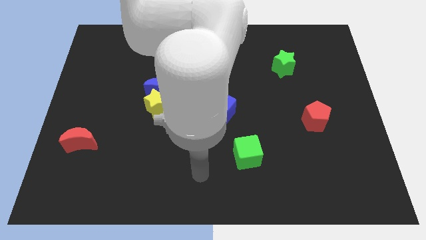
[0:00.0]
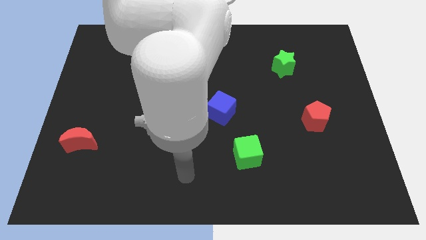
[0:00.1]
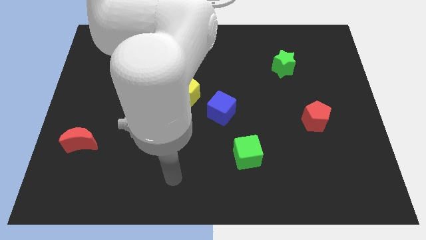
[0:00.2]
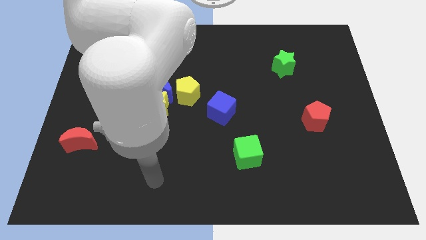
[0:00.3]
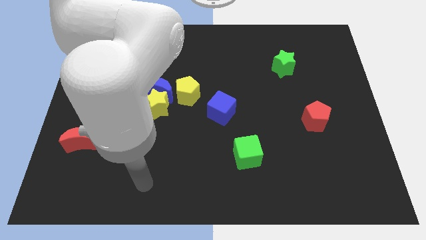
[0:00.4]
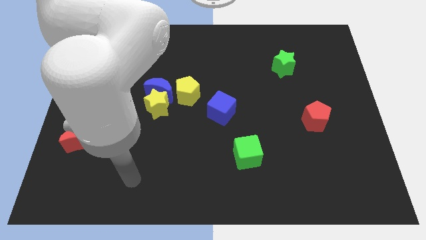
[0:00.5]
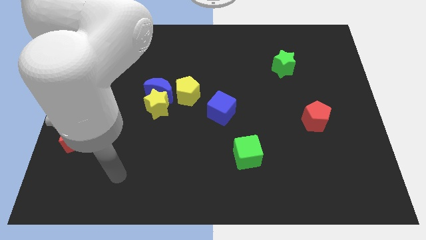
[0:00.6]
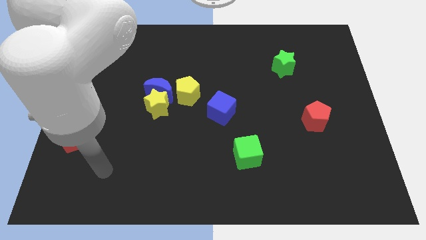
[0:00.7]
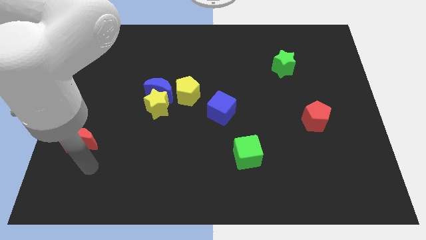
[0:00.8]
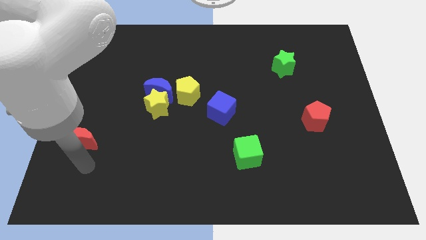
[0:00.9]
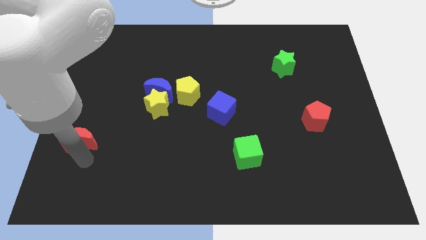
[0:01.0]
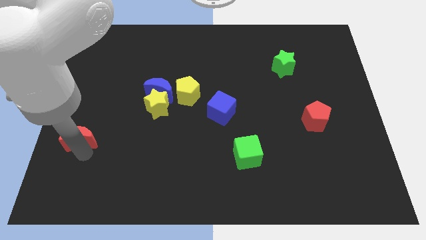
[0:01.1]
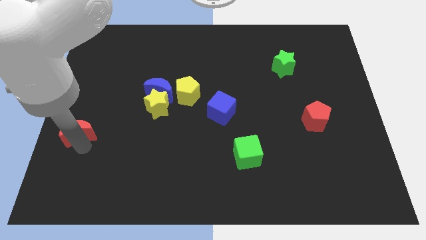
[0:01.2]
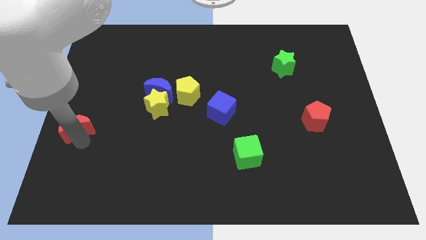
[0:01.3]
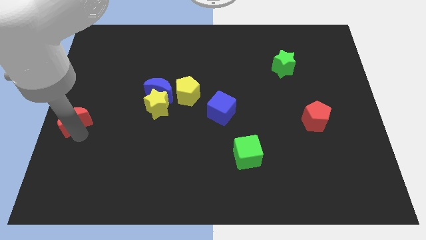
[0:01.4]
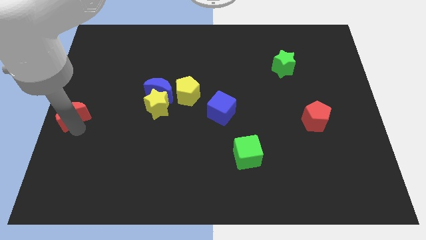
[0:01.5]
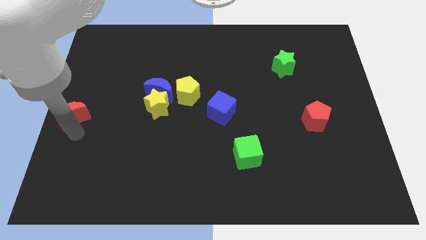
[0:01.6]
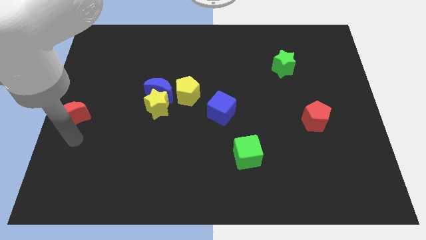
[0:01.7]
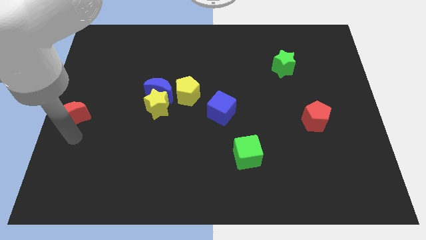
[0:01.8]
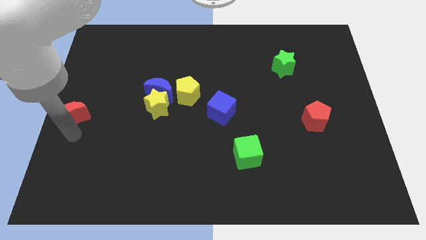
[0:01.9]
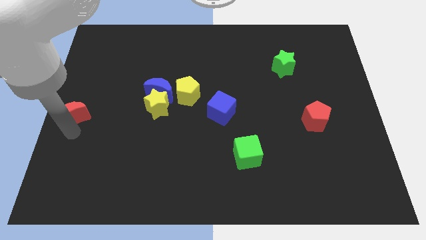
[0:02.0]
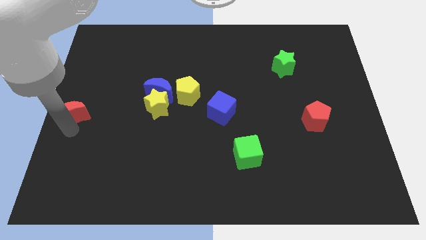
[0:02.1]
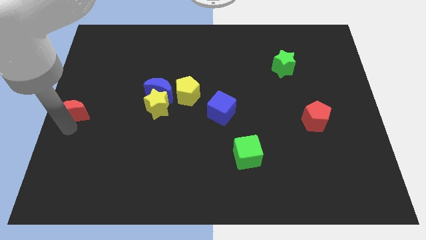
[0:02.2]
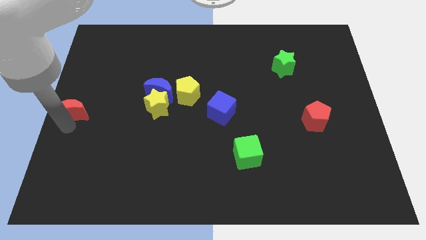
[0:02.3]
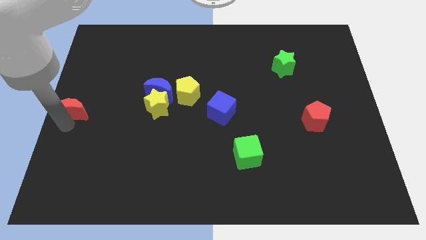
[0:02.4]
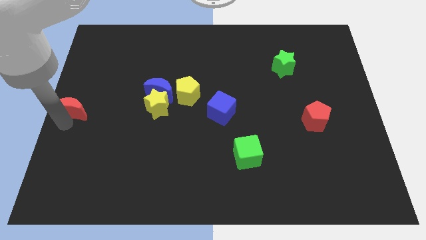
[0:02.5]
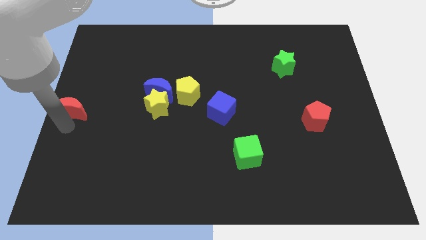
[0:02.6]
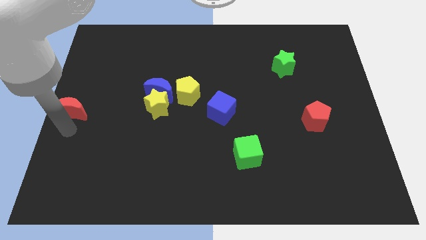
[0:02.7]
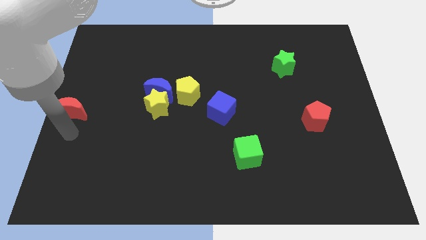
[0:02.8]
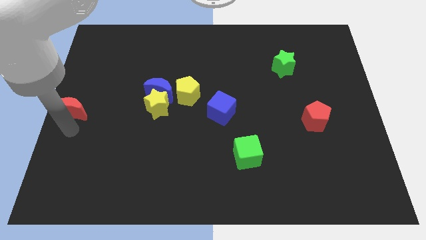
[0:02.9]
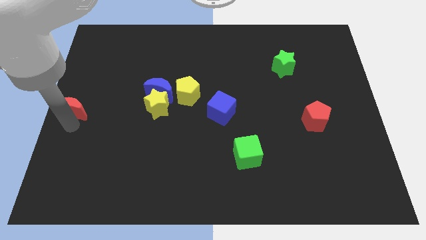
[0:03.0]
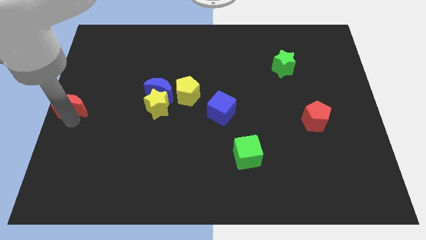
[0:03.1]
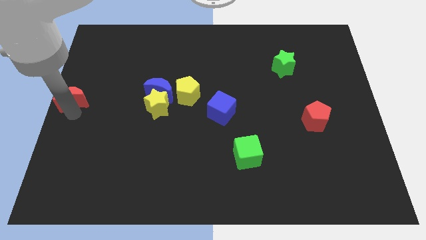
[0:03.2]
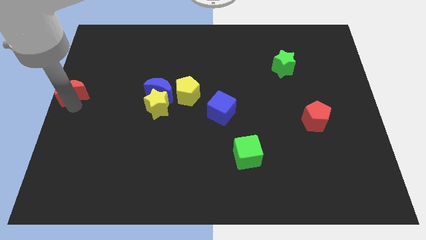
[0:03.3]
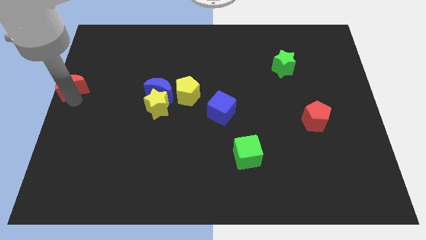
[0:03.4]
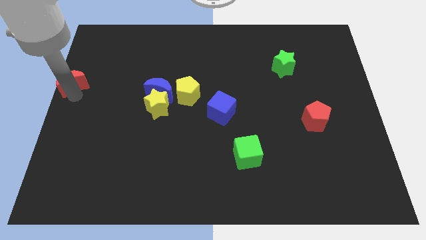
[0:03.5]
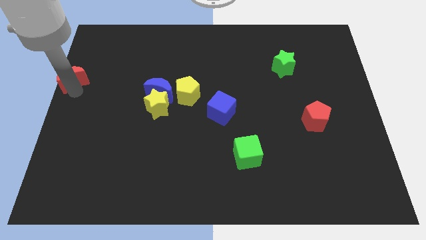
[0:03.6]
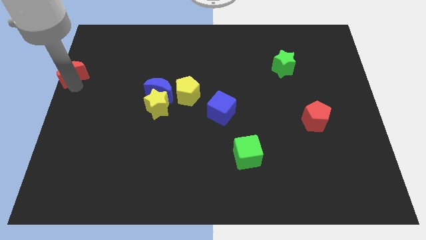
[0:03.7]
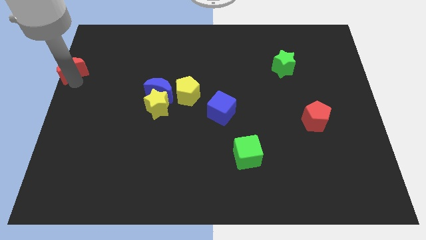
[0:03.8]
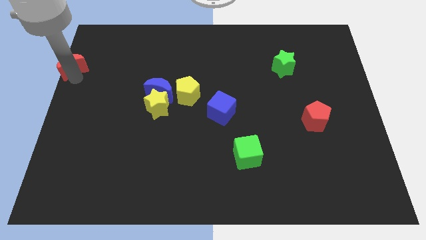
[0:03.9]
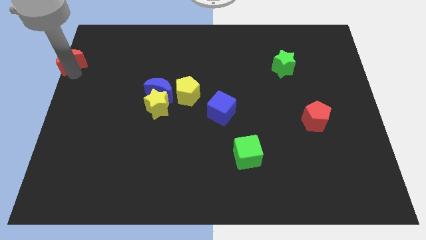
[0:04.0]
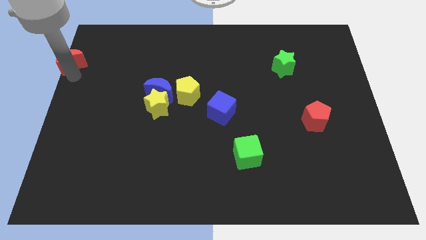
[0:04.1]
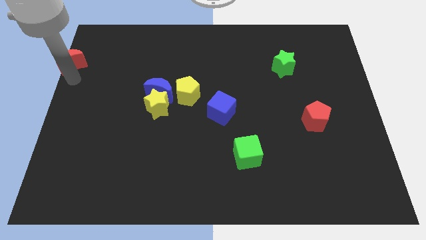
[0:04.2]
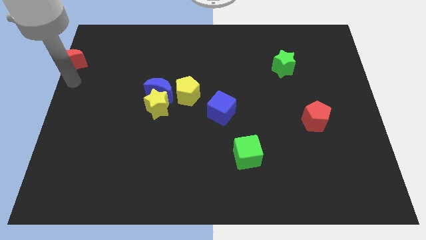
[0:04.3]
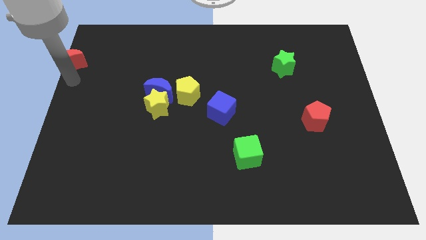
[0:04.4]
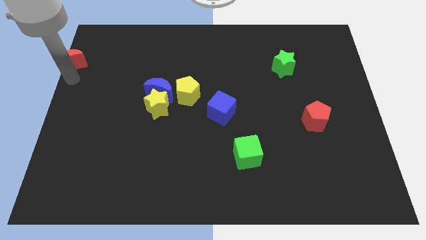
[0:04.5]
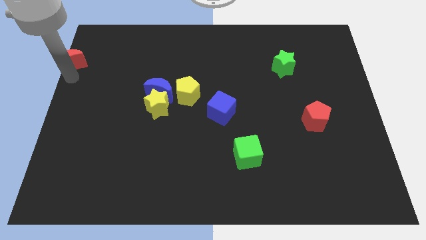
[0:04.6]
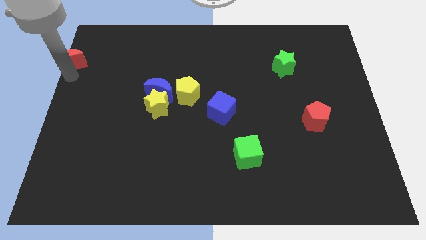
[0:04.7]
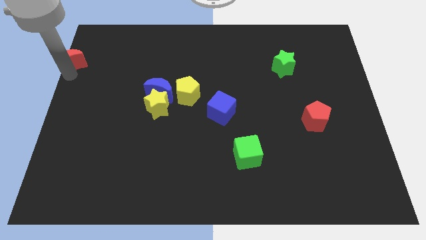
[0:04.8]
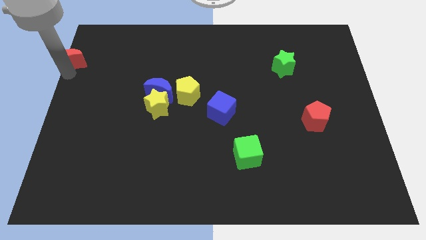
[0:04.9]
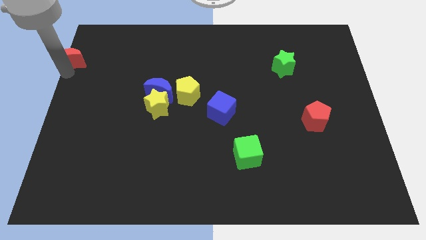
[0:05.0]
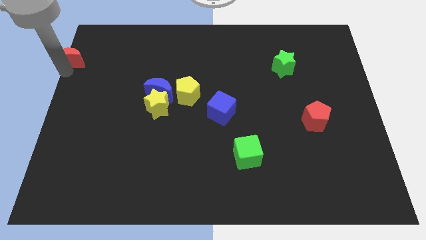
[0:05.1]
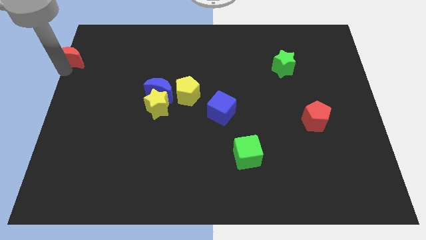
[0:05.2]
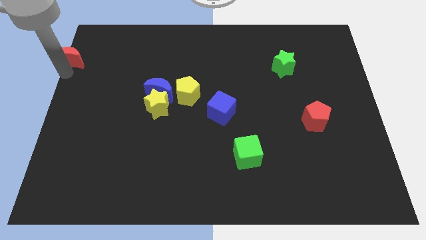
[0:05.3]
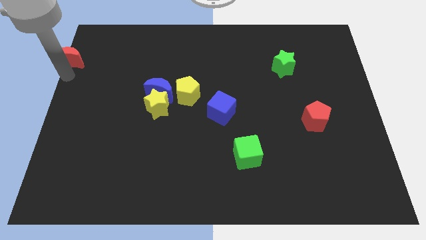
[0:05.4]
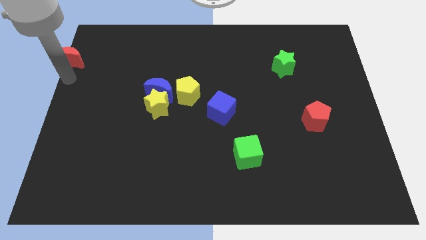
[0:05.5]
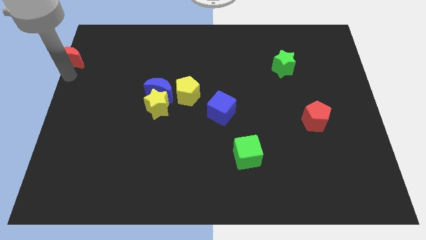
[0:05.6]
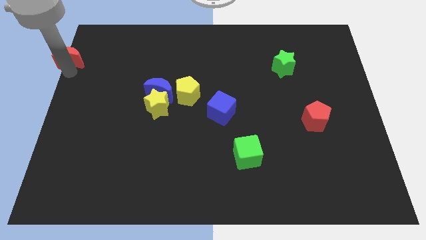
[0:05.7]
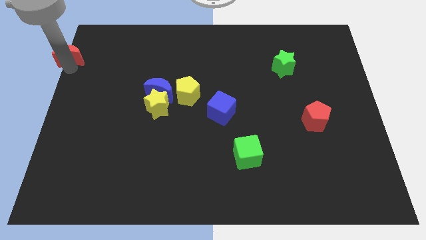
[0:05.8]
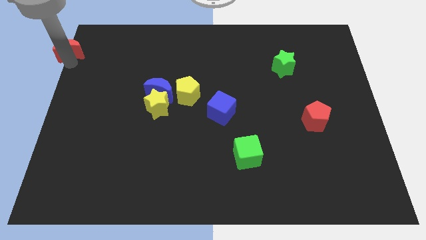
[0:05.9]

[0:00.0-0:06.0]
push the red moon to the upper left corner

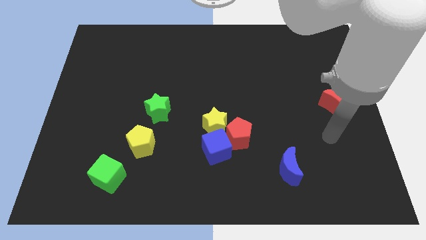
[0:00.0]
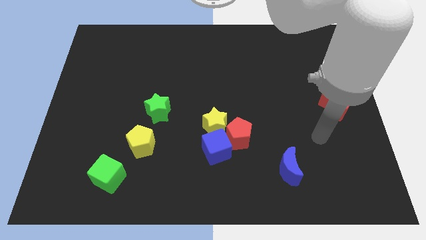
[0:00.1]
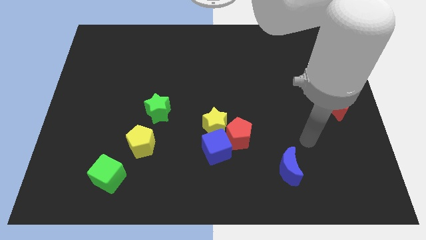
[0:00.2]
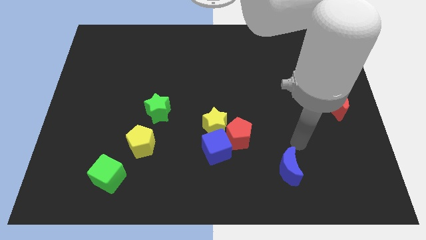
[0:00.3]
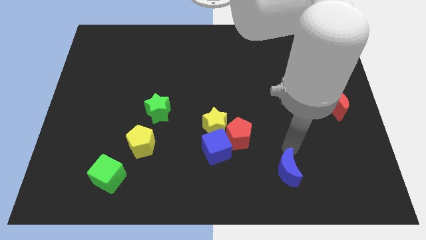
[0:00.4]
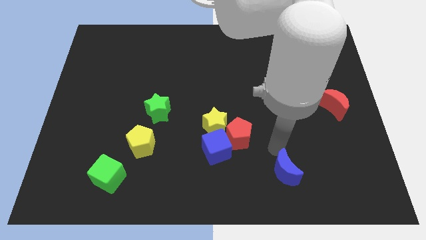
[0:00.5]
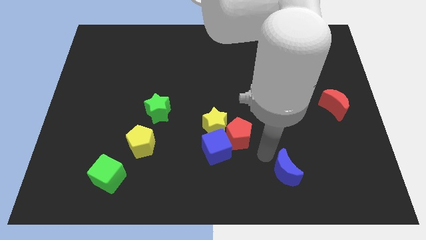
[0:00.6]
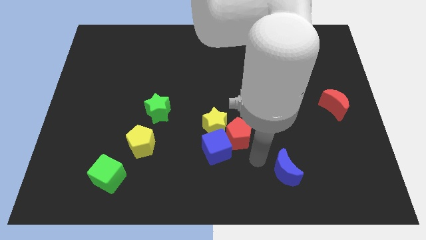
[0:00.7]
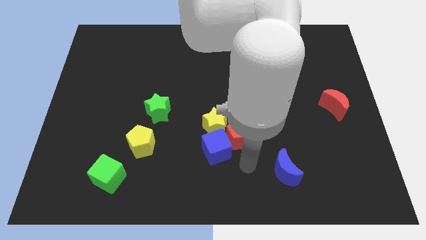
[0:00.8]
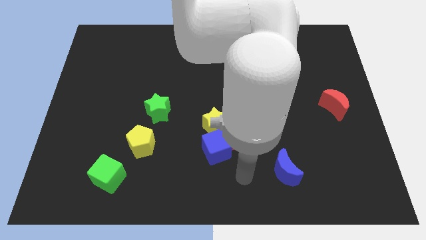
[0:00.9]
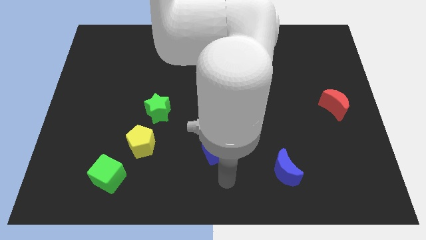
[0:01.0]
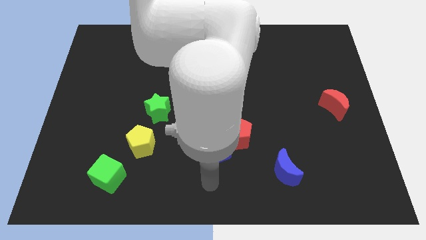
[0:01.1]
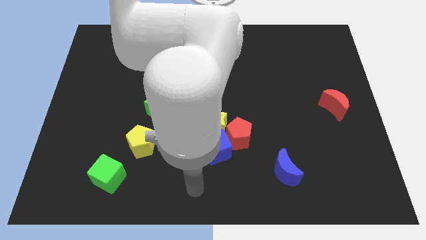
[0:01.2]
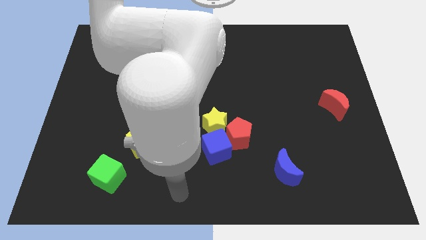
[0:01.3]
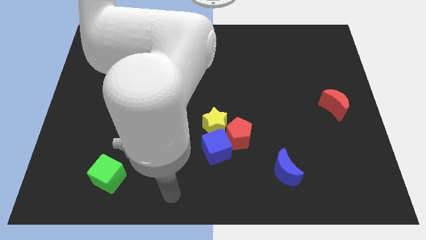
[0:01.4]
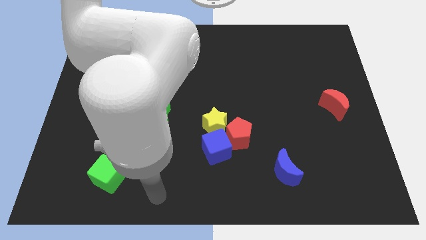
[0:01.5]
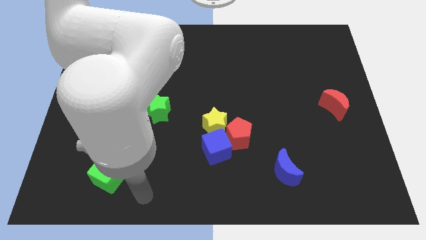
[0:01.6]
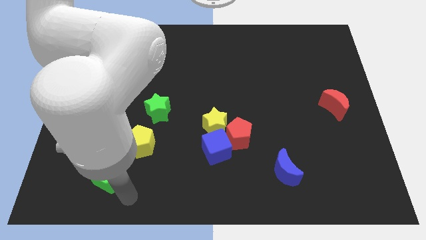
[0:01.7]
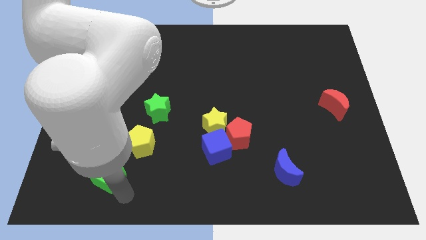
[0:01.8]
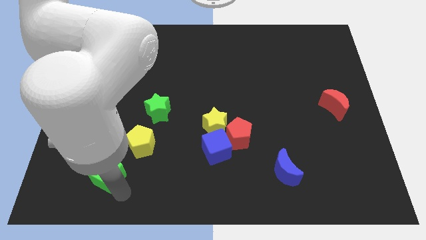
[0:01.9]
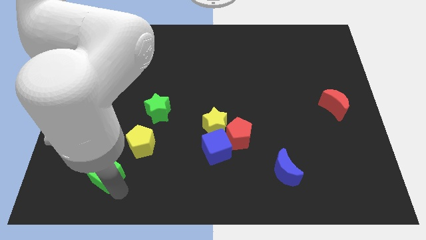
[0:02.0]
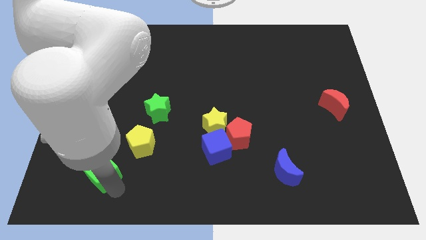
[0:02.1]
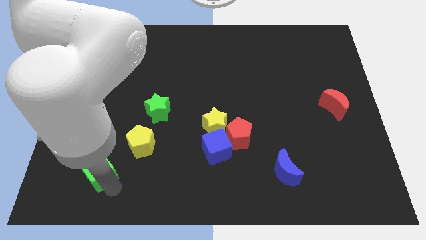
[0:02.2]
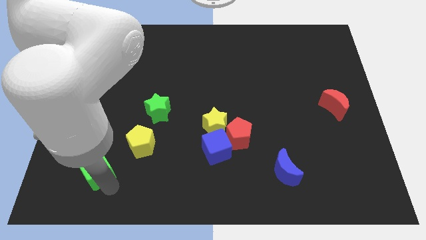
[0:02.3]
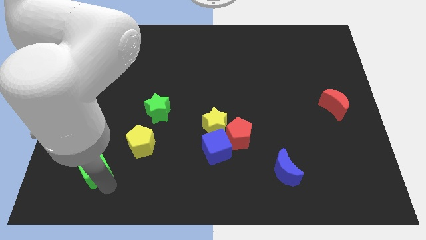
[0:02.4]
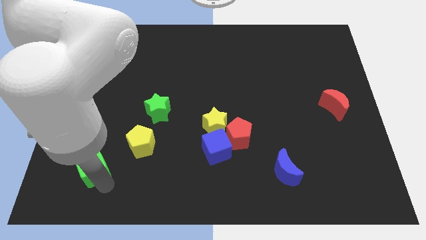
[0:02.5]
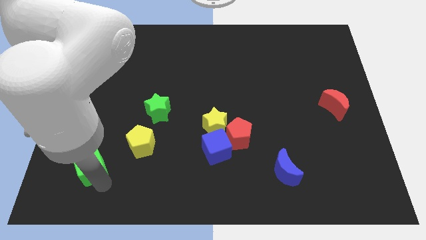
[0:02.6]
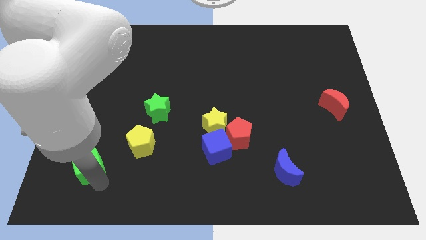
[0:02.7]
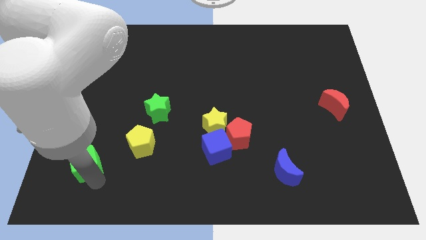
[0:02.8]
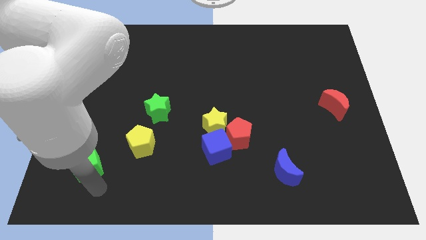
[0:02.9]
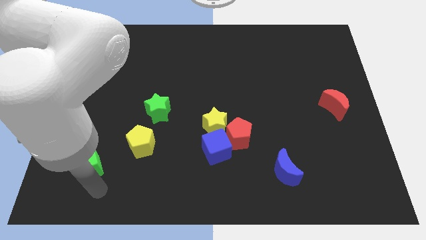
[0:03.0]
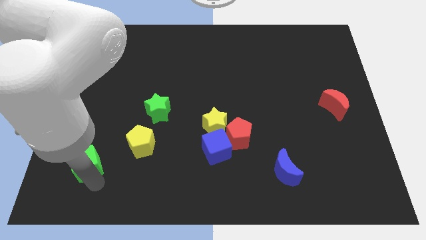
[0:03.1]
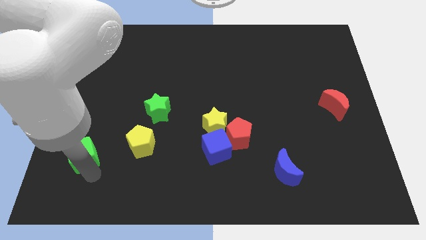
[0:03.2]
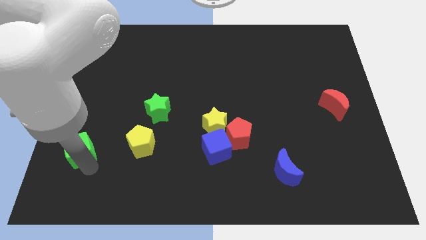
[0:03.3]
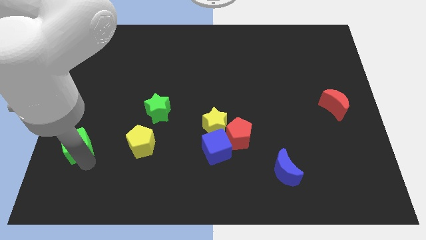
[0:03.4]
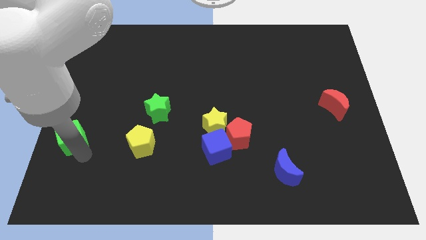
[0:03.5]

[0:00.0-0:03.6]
push the green cube to the left side
